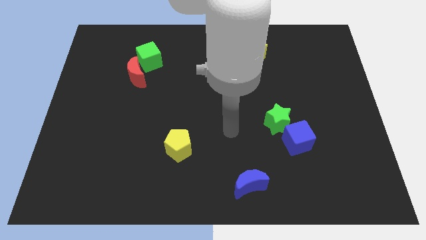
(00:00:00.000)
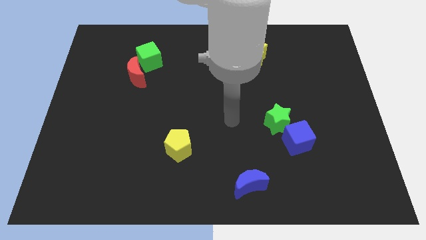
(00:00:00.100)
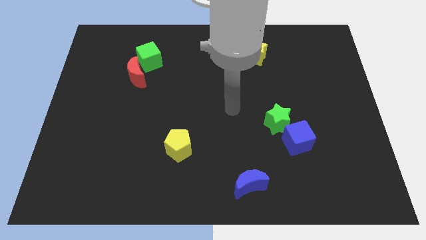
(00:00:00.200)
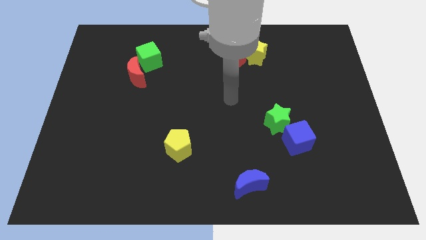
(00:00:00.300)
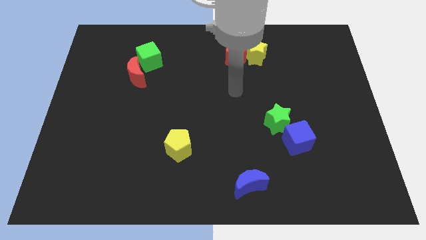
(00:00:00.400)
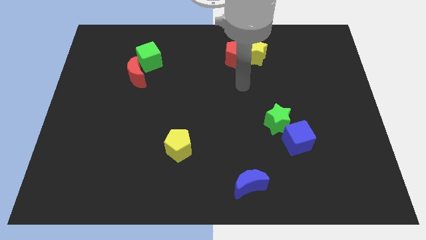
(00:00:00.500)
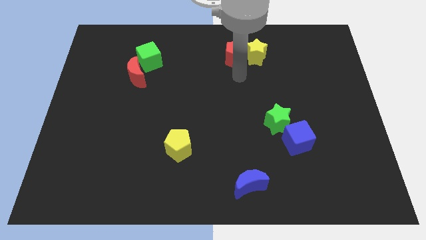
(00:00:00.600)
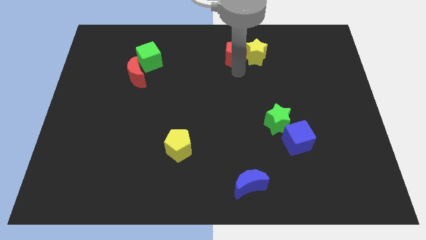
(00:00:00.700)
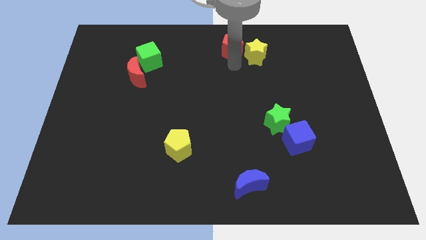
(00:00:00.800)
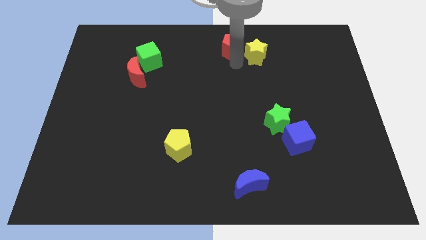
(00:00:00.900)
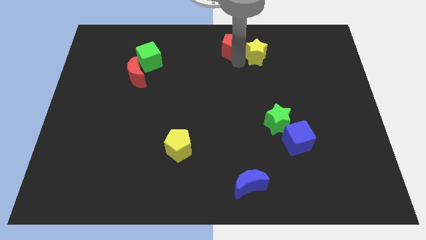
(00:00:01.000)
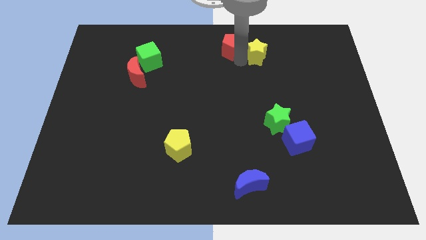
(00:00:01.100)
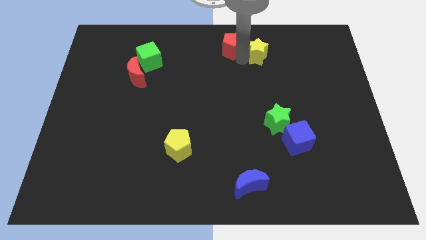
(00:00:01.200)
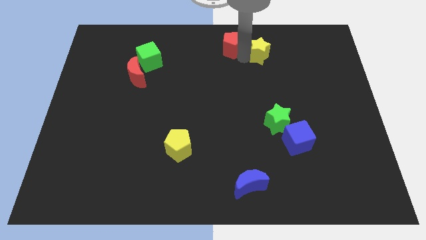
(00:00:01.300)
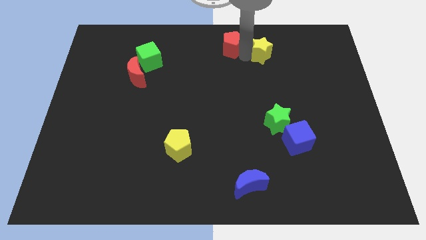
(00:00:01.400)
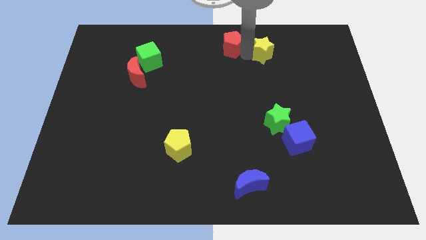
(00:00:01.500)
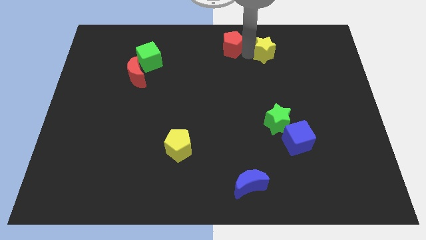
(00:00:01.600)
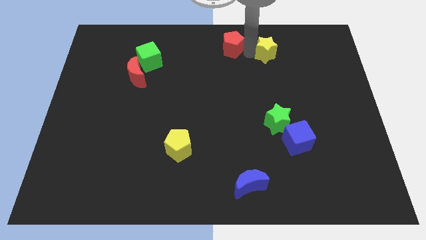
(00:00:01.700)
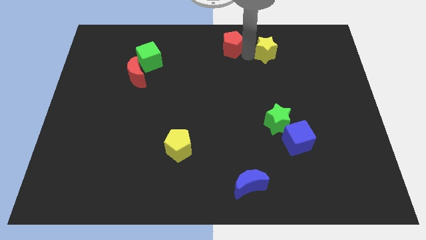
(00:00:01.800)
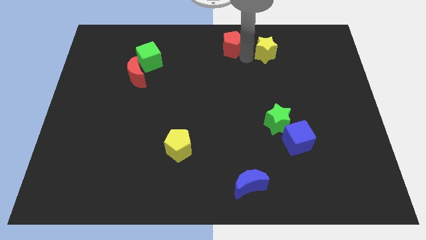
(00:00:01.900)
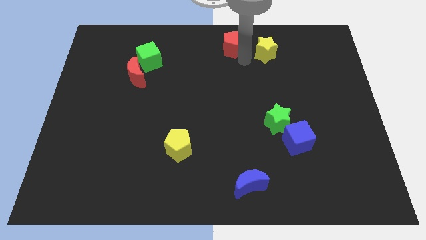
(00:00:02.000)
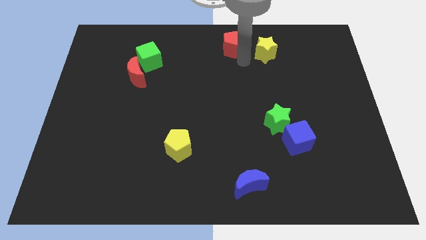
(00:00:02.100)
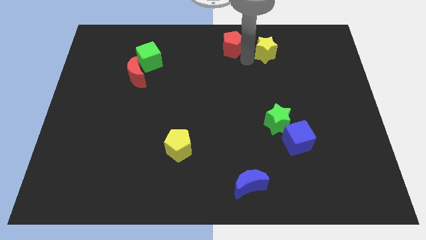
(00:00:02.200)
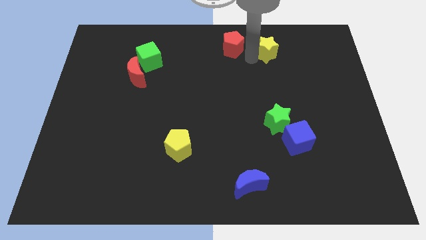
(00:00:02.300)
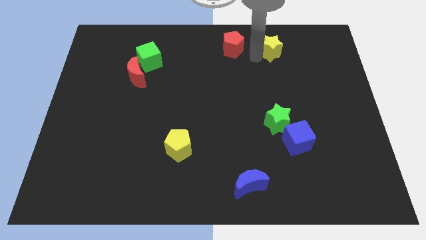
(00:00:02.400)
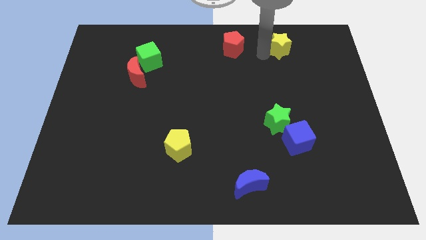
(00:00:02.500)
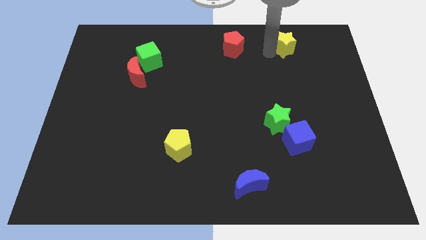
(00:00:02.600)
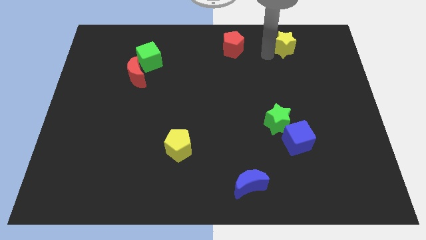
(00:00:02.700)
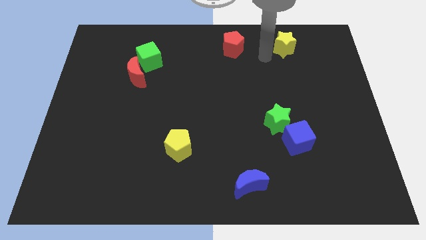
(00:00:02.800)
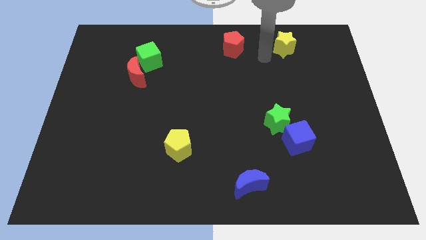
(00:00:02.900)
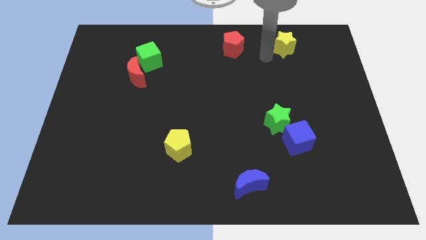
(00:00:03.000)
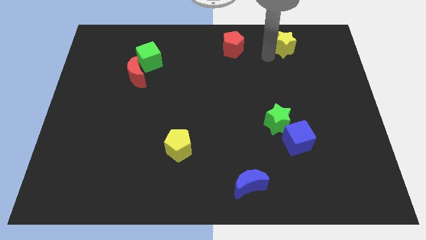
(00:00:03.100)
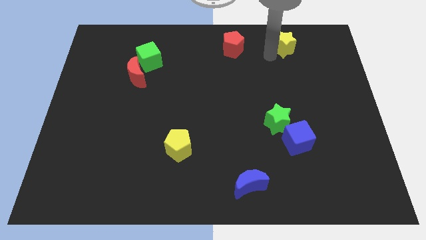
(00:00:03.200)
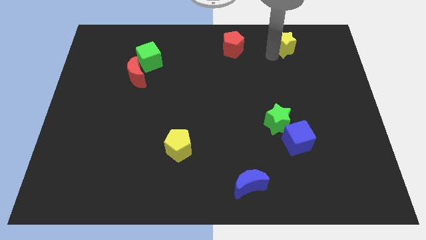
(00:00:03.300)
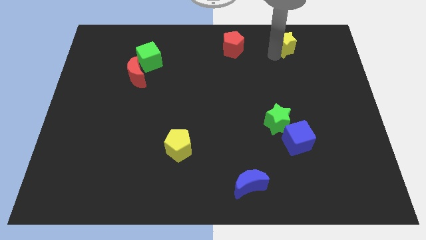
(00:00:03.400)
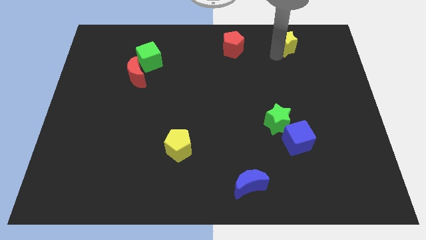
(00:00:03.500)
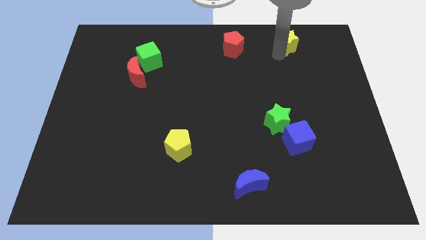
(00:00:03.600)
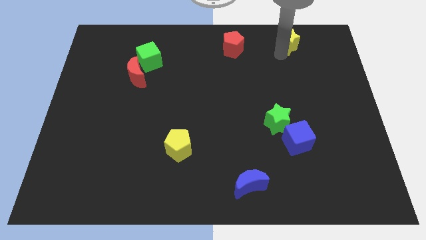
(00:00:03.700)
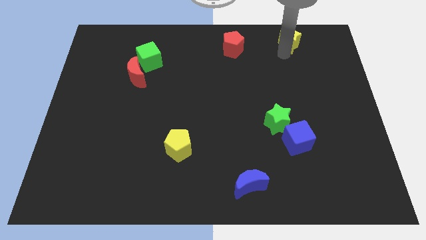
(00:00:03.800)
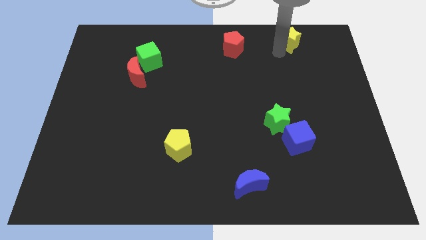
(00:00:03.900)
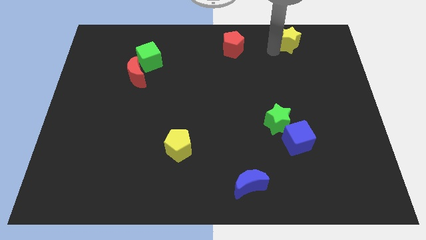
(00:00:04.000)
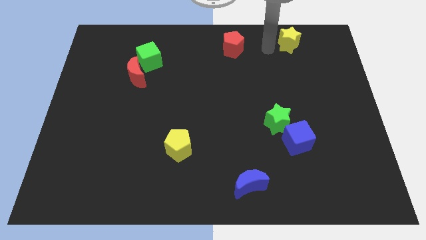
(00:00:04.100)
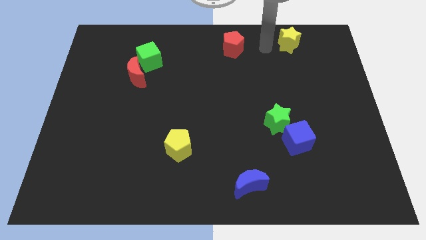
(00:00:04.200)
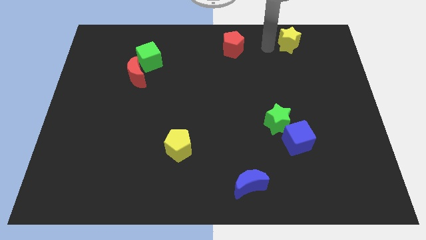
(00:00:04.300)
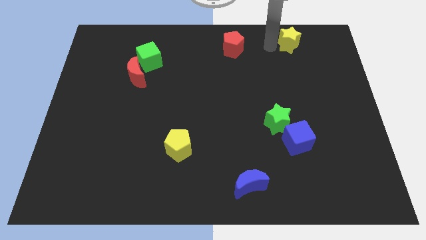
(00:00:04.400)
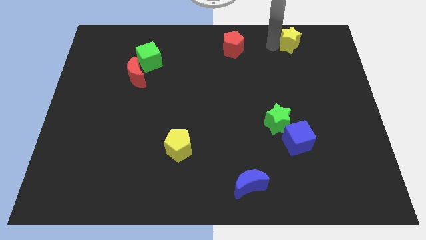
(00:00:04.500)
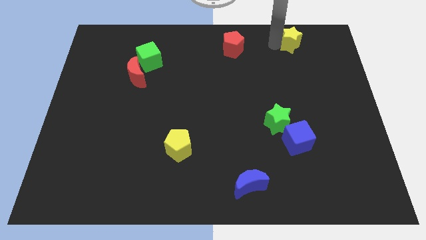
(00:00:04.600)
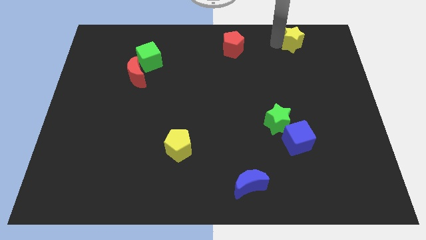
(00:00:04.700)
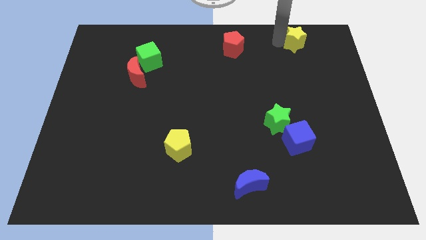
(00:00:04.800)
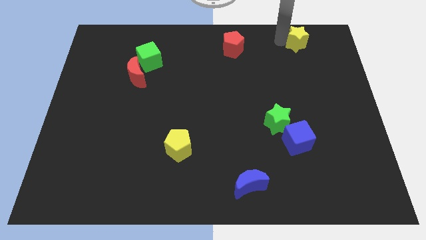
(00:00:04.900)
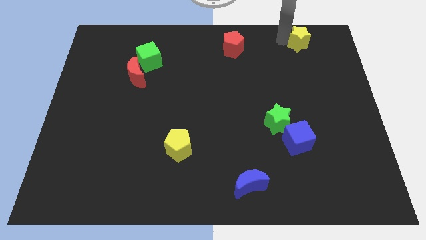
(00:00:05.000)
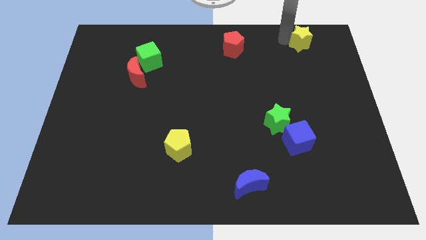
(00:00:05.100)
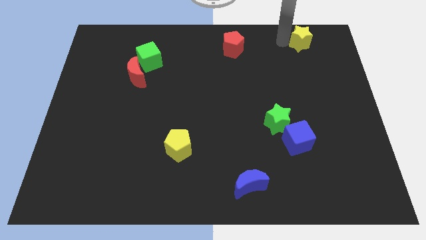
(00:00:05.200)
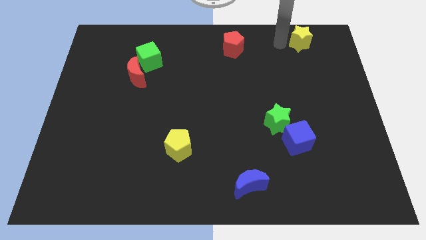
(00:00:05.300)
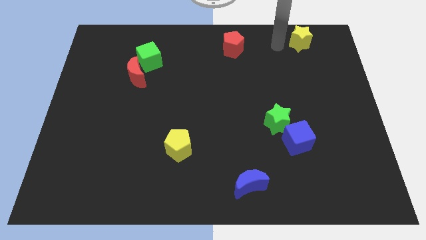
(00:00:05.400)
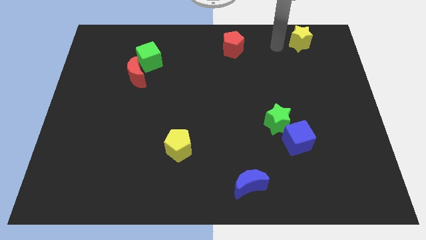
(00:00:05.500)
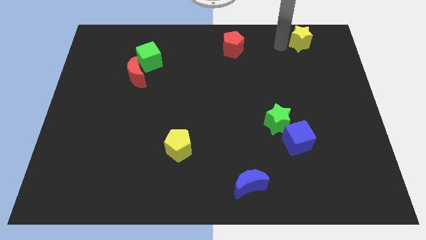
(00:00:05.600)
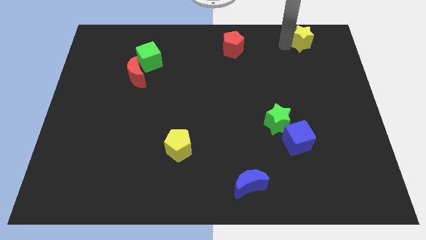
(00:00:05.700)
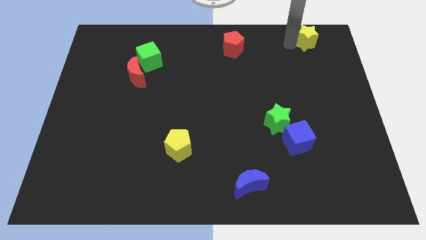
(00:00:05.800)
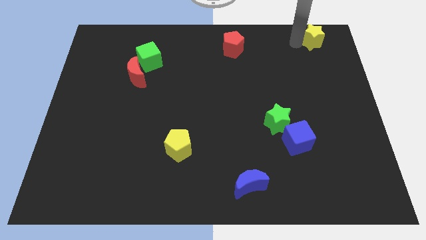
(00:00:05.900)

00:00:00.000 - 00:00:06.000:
slide the yellow star to the upper right corner
